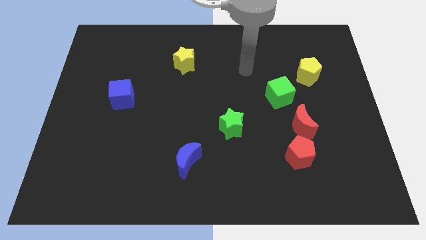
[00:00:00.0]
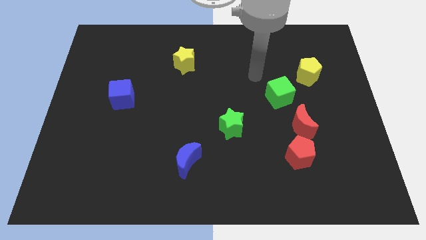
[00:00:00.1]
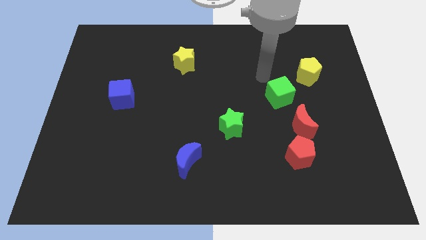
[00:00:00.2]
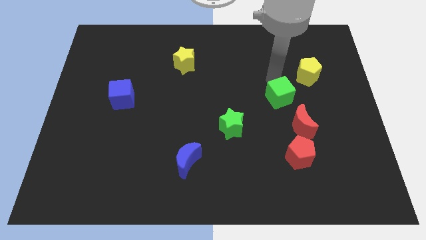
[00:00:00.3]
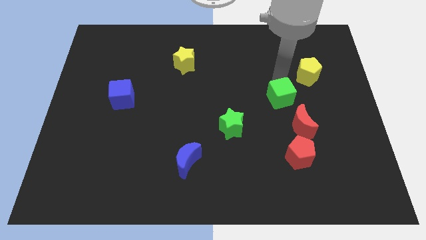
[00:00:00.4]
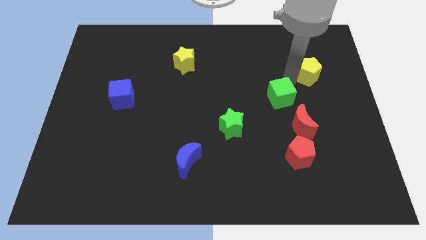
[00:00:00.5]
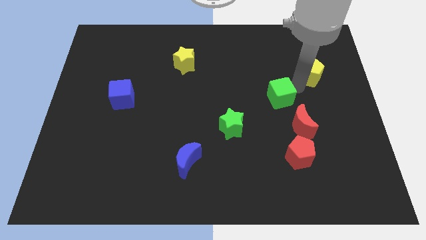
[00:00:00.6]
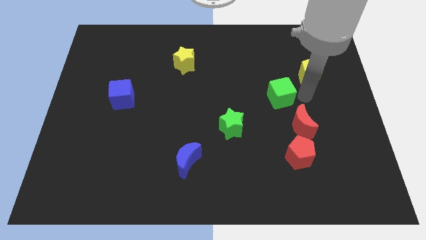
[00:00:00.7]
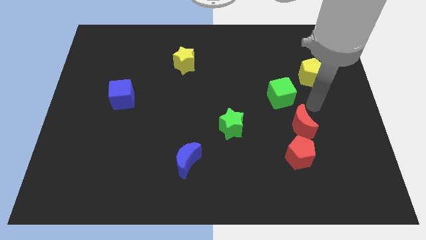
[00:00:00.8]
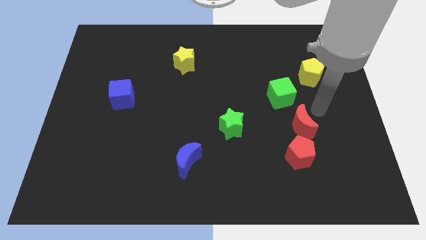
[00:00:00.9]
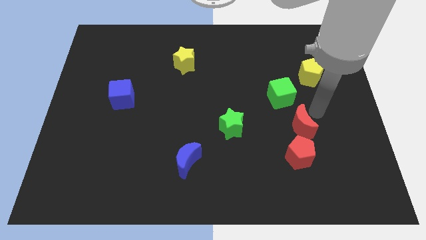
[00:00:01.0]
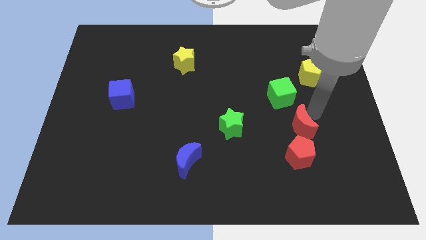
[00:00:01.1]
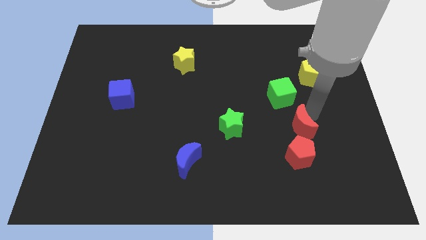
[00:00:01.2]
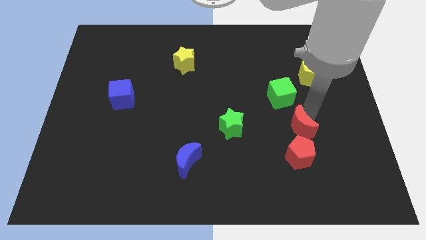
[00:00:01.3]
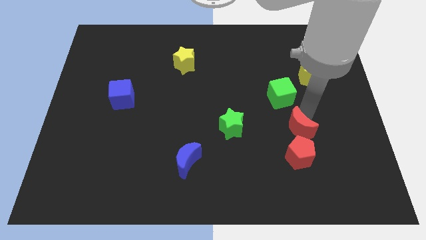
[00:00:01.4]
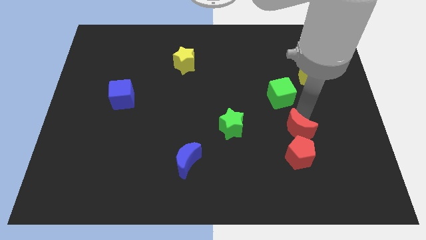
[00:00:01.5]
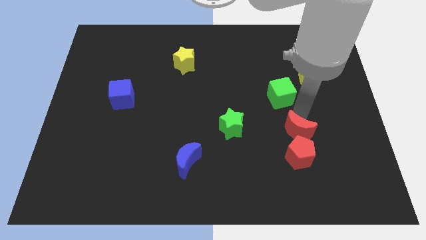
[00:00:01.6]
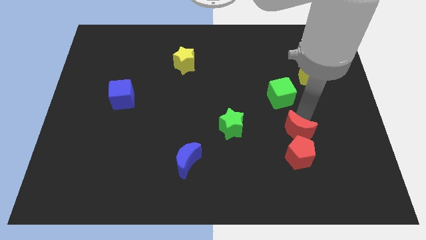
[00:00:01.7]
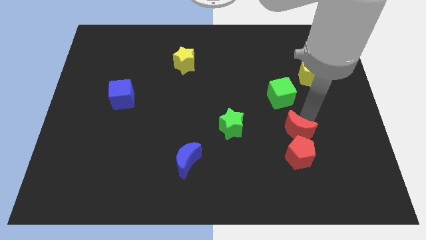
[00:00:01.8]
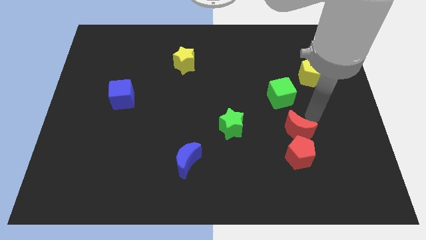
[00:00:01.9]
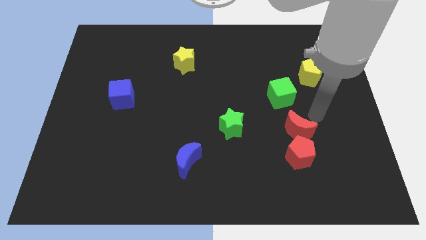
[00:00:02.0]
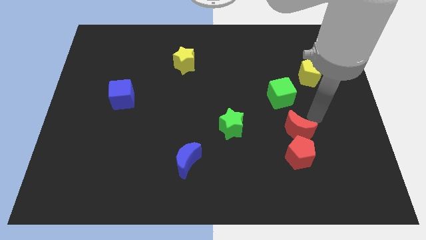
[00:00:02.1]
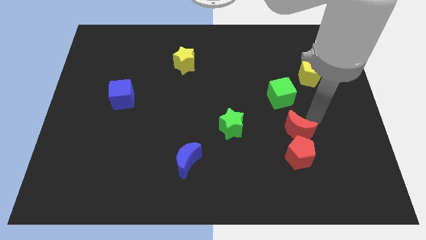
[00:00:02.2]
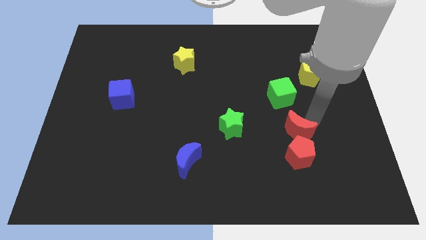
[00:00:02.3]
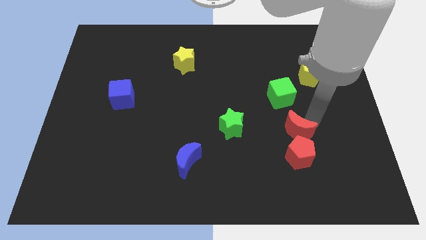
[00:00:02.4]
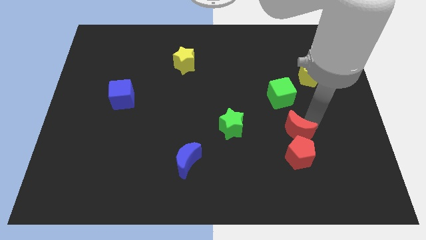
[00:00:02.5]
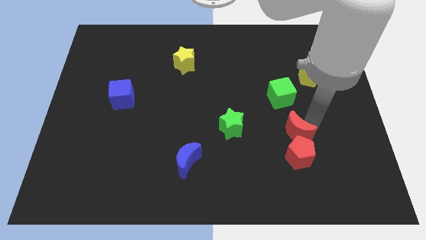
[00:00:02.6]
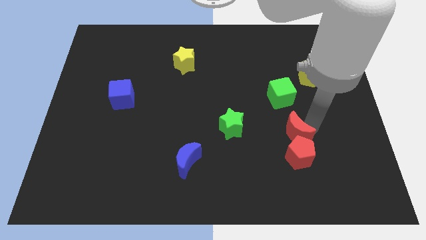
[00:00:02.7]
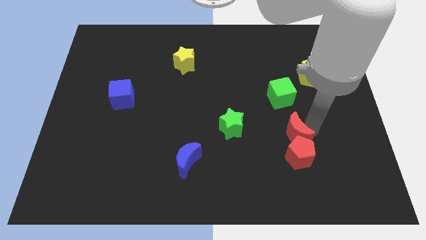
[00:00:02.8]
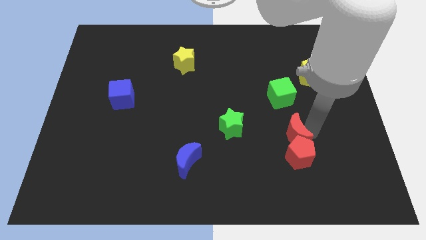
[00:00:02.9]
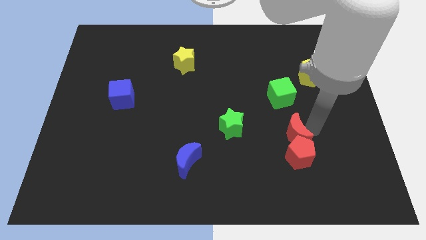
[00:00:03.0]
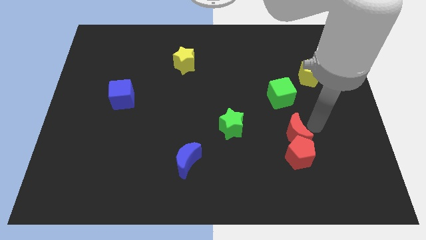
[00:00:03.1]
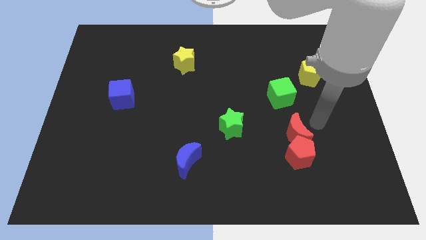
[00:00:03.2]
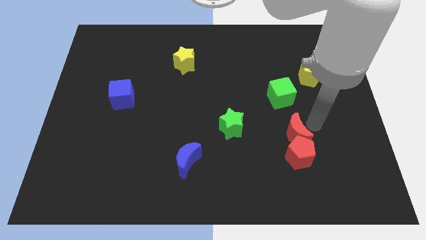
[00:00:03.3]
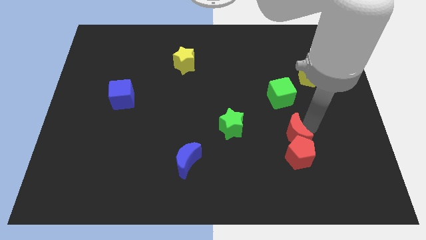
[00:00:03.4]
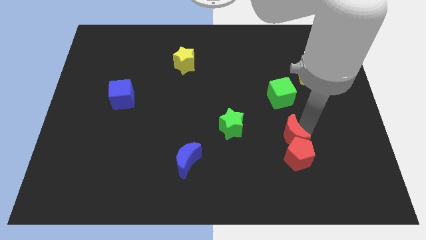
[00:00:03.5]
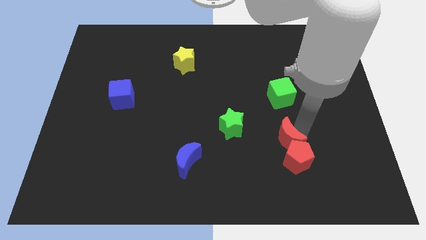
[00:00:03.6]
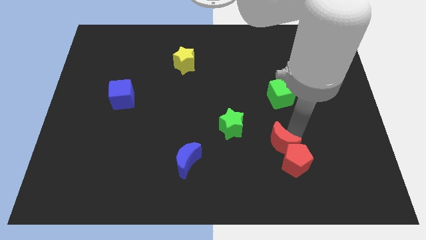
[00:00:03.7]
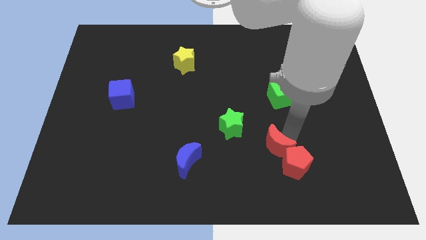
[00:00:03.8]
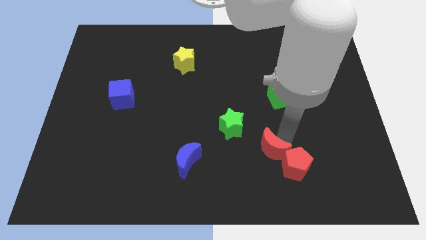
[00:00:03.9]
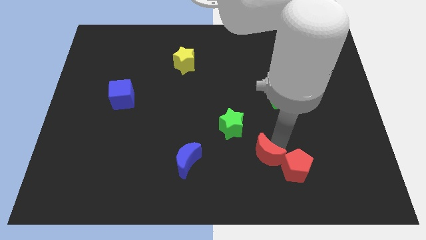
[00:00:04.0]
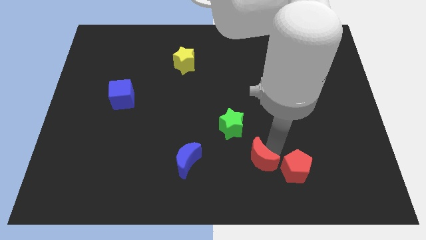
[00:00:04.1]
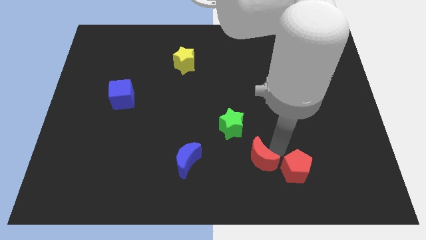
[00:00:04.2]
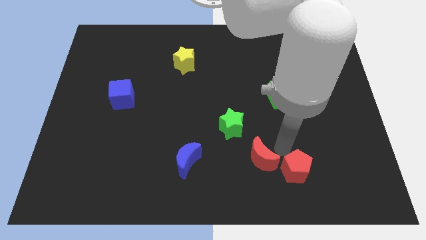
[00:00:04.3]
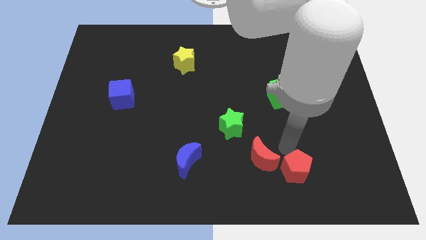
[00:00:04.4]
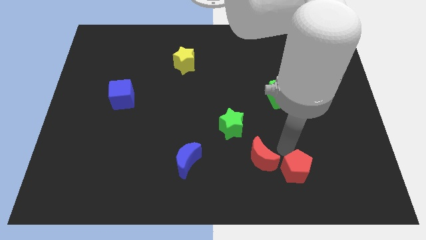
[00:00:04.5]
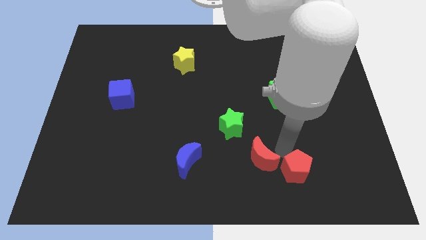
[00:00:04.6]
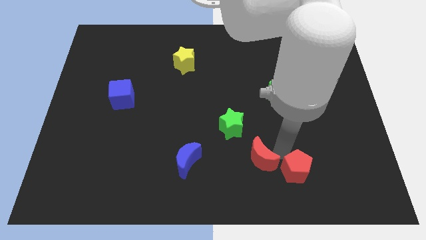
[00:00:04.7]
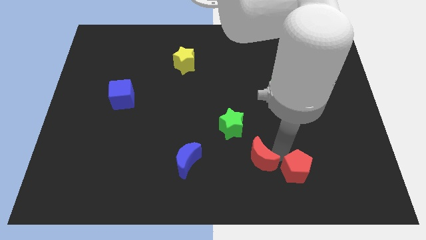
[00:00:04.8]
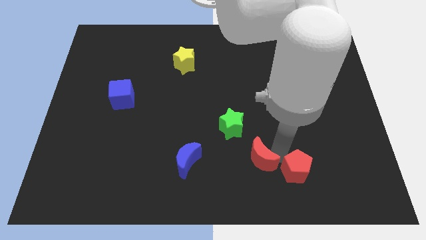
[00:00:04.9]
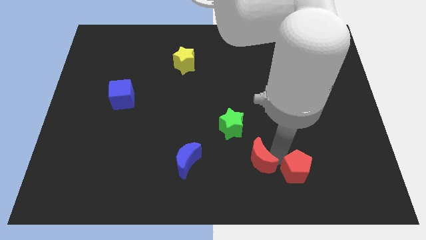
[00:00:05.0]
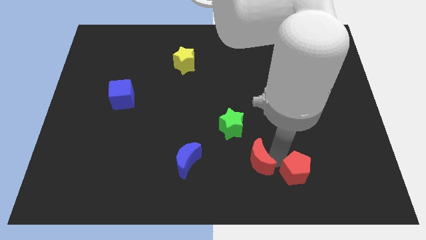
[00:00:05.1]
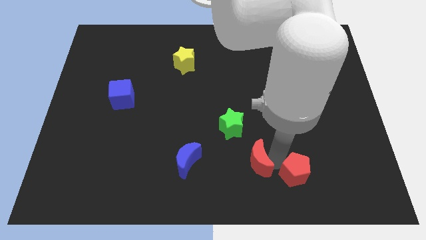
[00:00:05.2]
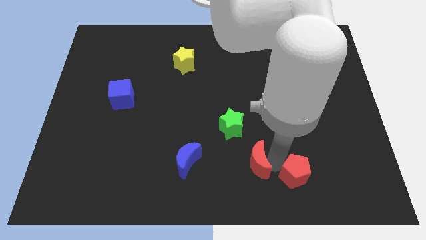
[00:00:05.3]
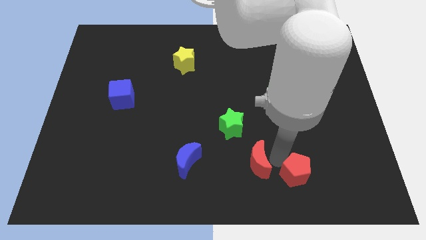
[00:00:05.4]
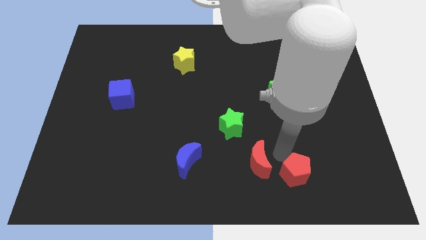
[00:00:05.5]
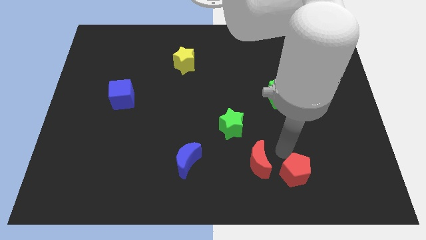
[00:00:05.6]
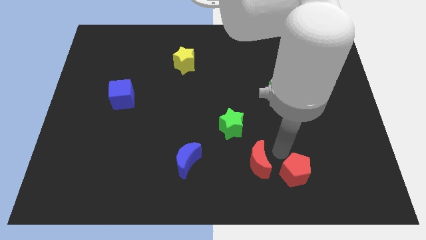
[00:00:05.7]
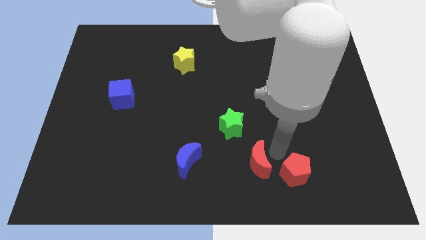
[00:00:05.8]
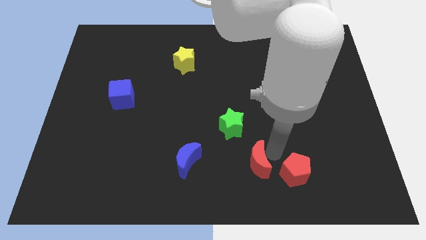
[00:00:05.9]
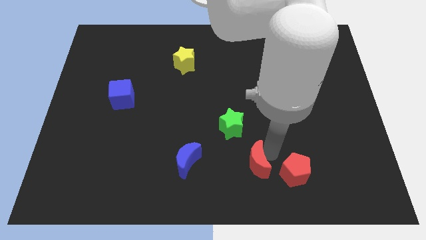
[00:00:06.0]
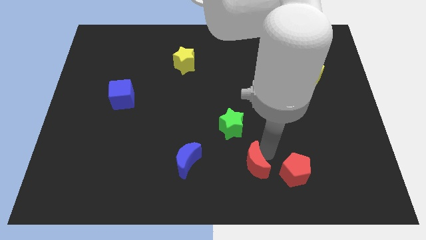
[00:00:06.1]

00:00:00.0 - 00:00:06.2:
put the red moon to the bottom

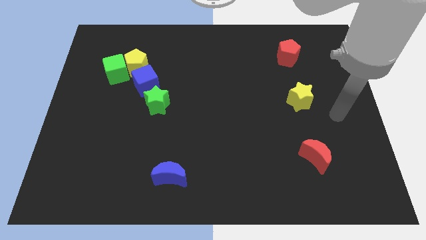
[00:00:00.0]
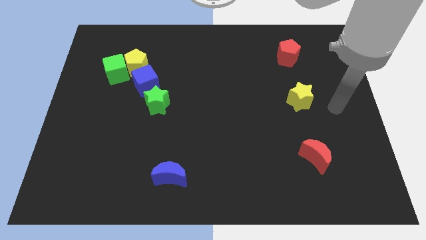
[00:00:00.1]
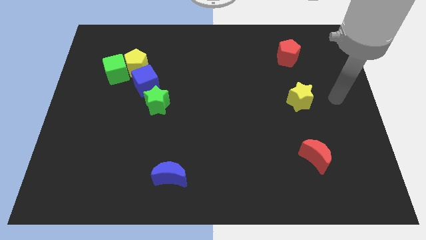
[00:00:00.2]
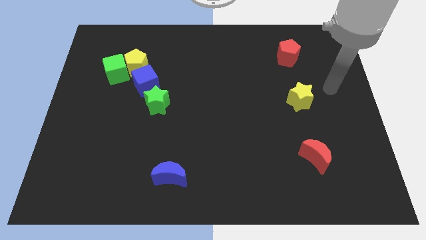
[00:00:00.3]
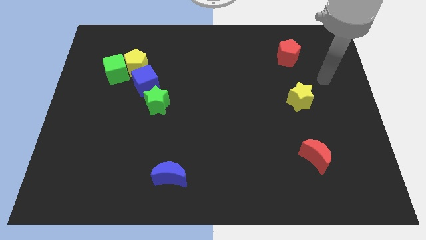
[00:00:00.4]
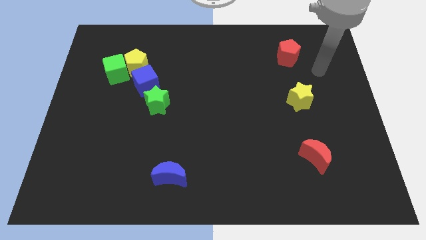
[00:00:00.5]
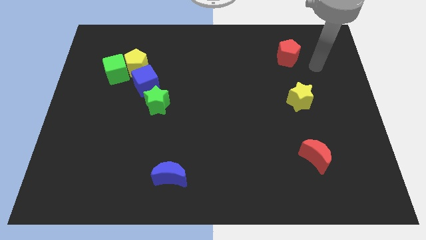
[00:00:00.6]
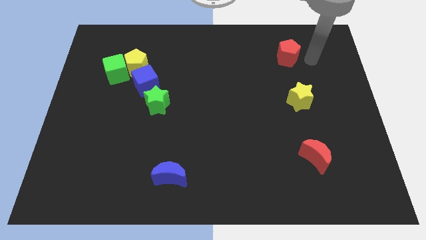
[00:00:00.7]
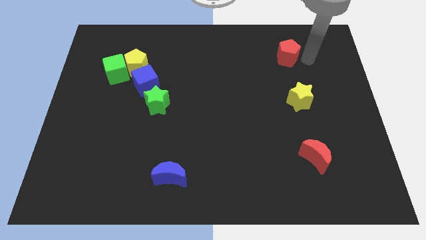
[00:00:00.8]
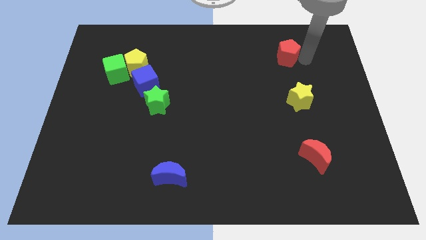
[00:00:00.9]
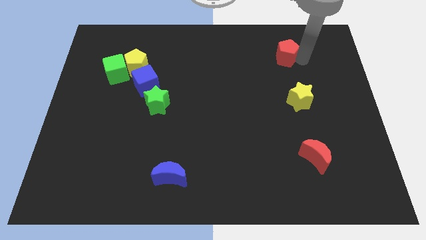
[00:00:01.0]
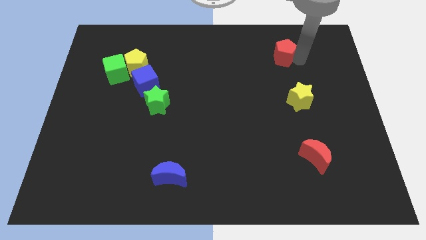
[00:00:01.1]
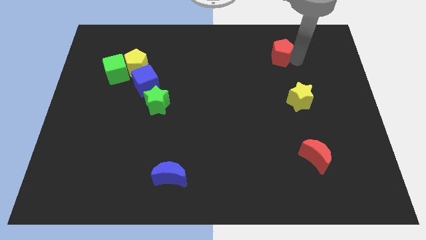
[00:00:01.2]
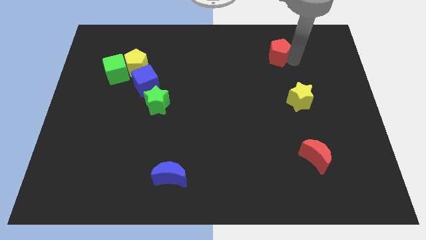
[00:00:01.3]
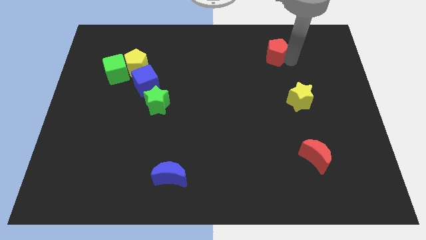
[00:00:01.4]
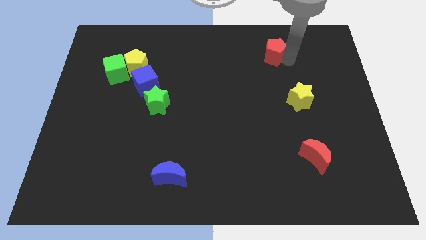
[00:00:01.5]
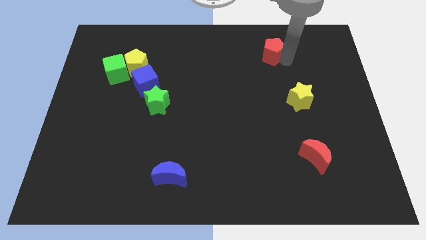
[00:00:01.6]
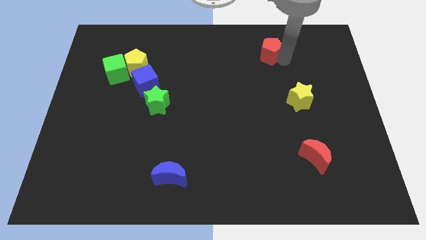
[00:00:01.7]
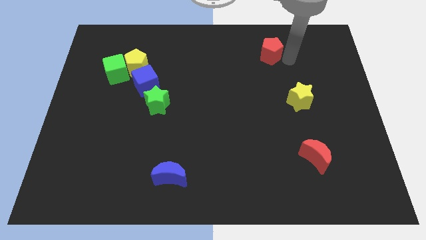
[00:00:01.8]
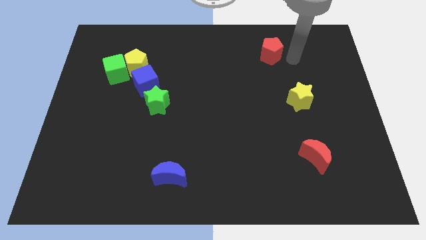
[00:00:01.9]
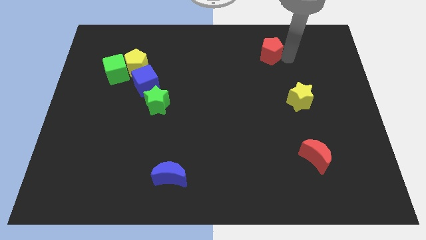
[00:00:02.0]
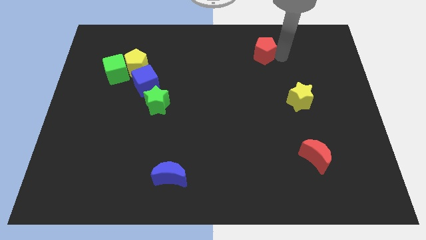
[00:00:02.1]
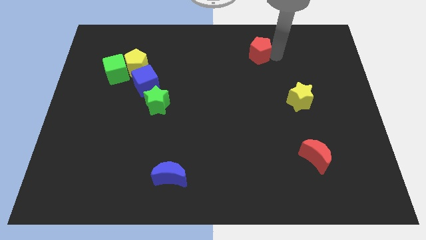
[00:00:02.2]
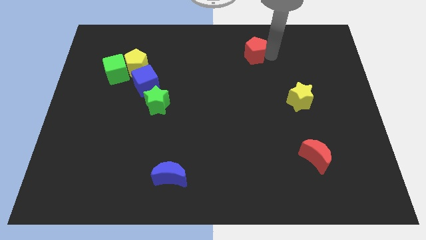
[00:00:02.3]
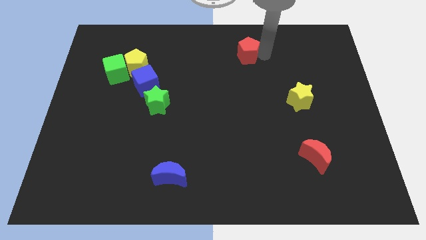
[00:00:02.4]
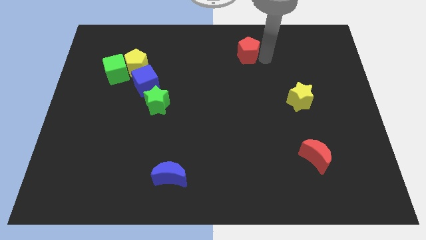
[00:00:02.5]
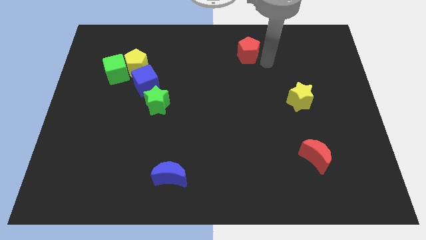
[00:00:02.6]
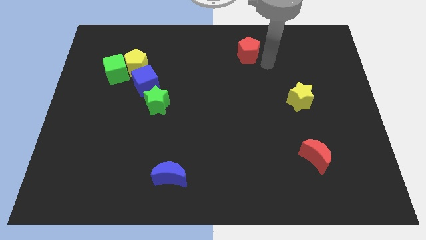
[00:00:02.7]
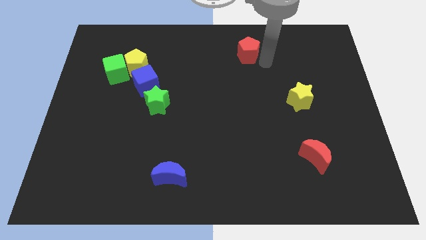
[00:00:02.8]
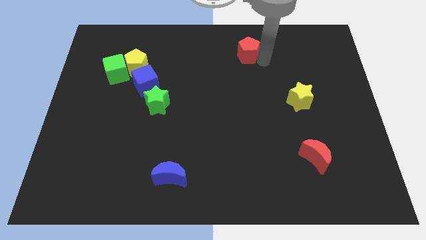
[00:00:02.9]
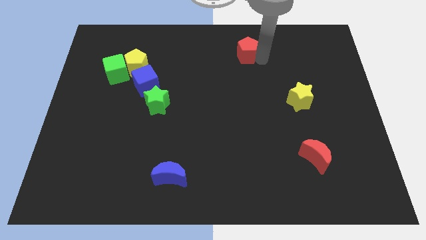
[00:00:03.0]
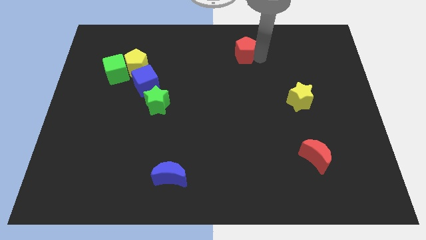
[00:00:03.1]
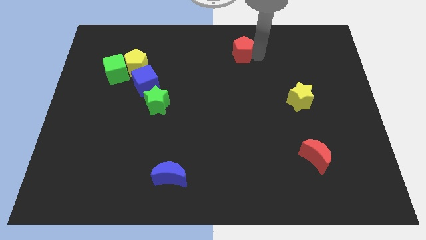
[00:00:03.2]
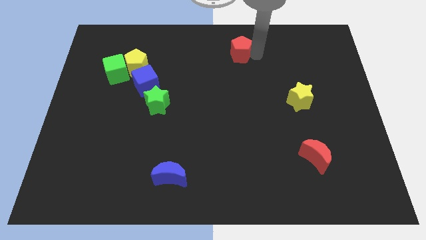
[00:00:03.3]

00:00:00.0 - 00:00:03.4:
put the red pentagon to the top side
